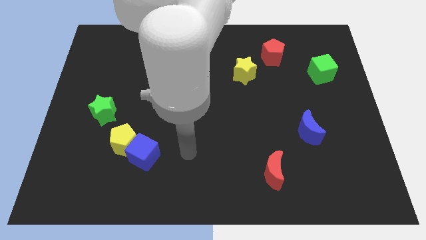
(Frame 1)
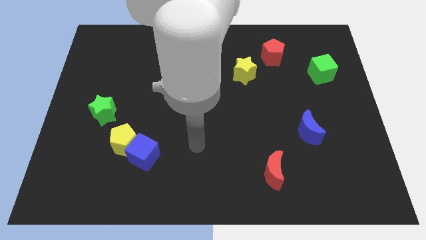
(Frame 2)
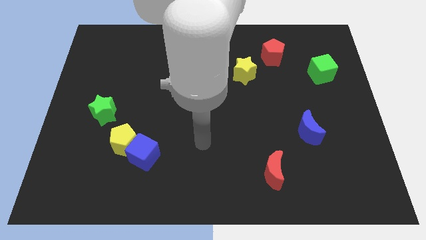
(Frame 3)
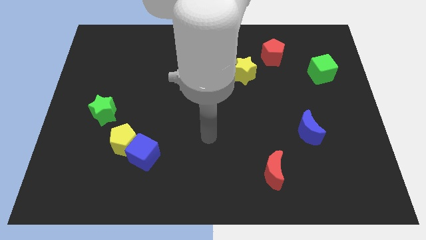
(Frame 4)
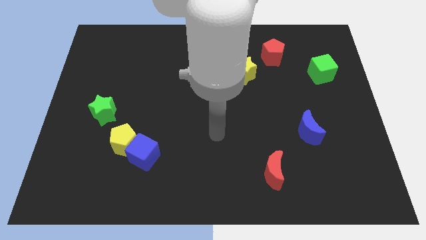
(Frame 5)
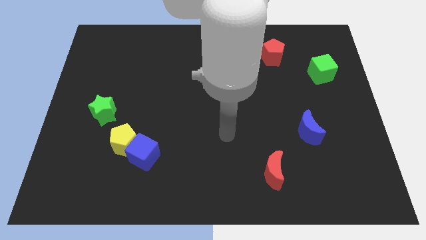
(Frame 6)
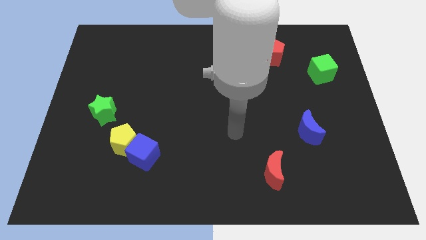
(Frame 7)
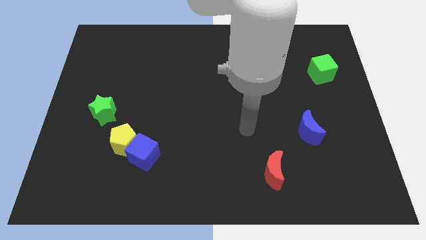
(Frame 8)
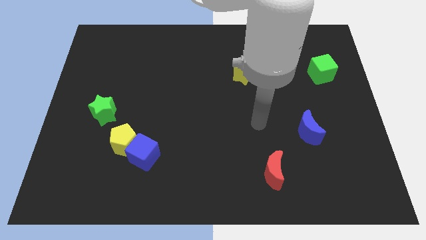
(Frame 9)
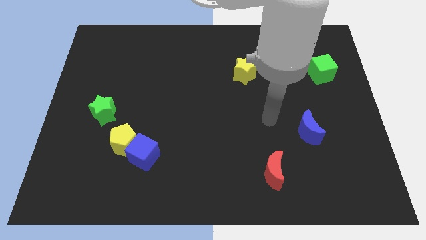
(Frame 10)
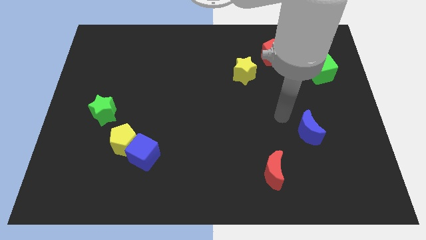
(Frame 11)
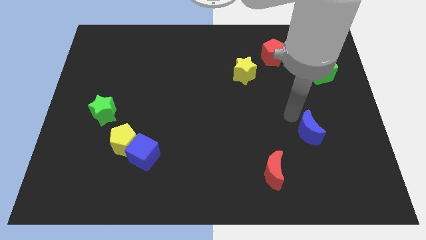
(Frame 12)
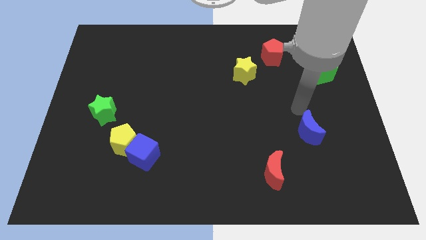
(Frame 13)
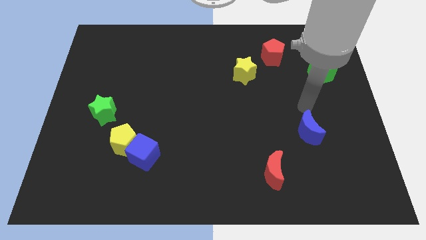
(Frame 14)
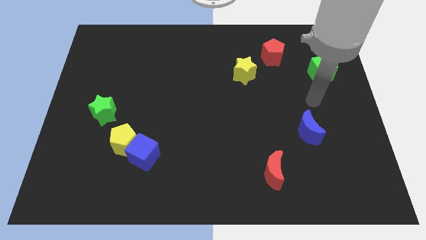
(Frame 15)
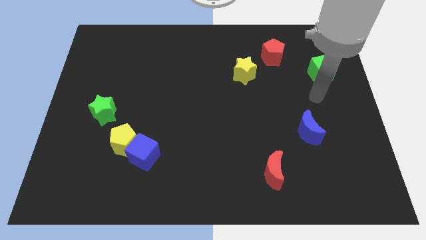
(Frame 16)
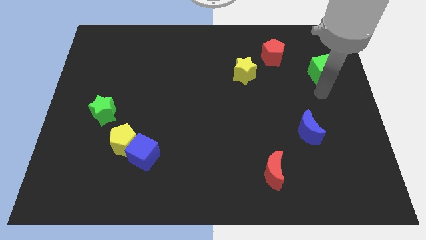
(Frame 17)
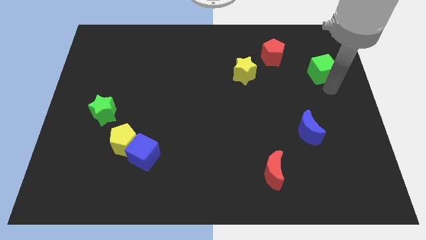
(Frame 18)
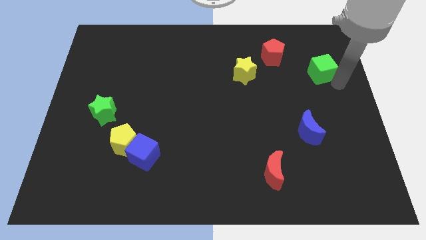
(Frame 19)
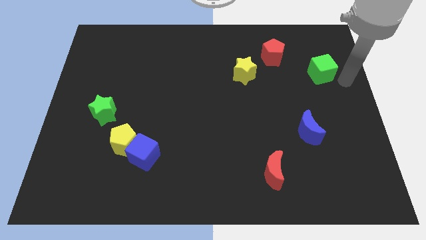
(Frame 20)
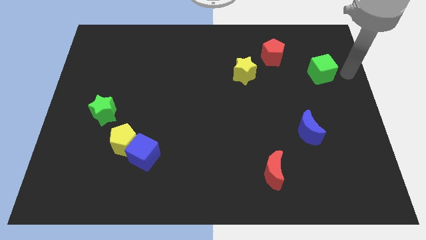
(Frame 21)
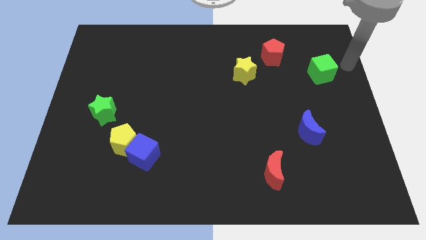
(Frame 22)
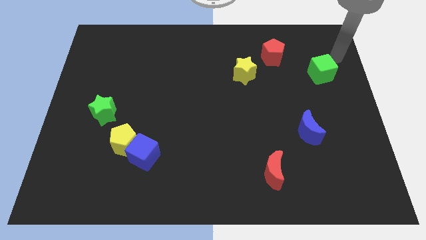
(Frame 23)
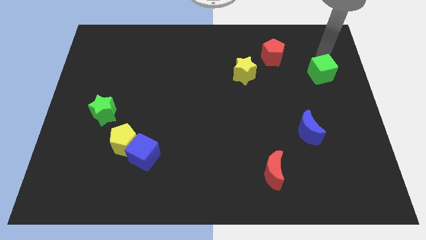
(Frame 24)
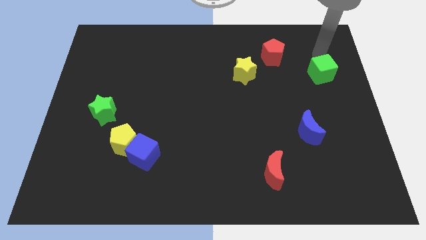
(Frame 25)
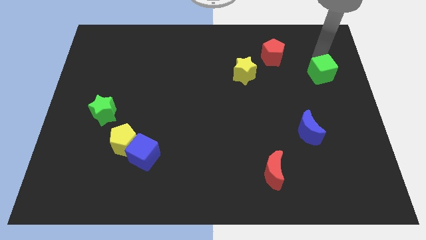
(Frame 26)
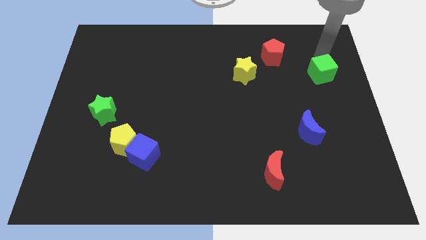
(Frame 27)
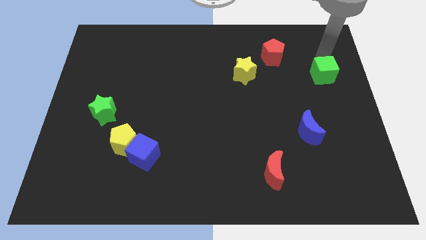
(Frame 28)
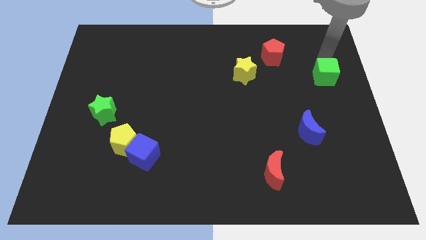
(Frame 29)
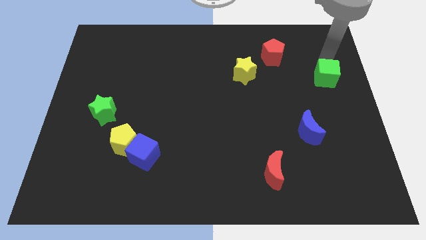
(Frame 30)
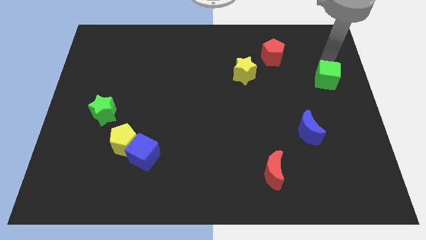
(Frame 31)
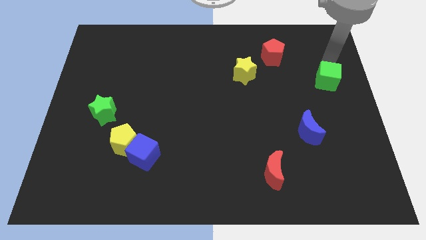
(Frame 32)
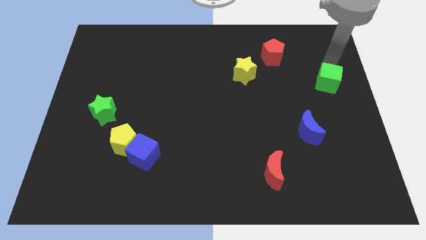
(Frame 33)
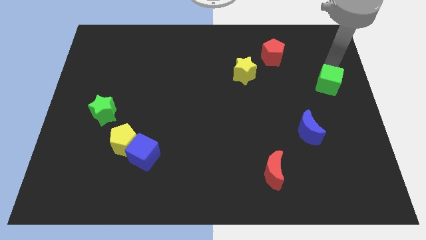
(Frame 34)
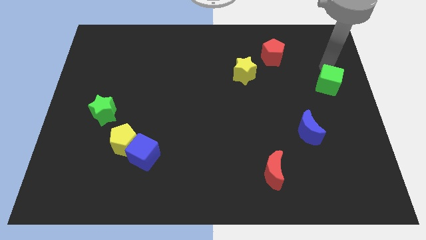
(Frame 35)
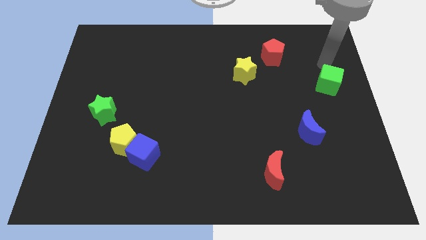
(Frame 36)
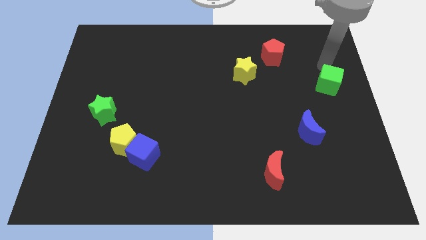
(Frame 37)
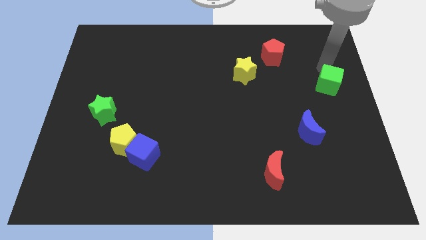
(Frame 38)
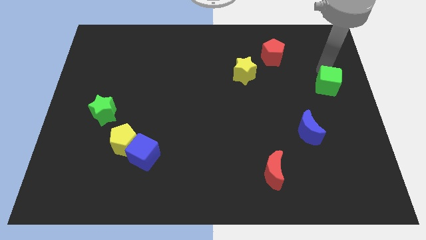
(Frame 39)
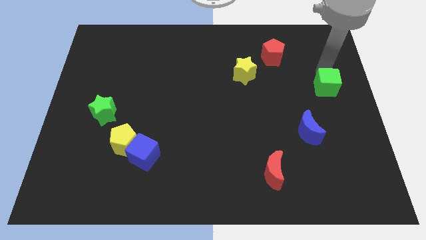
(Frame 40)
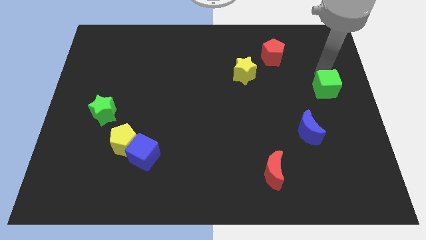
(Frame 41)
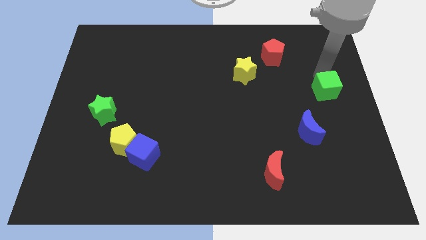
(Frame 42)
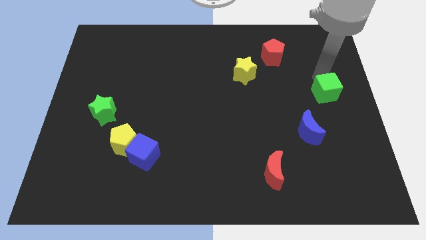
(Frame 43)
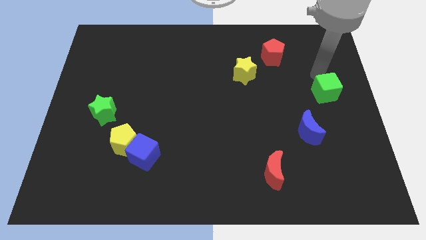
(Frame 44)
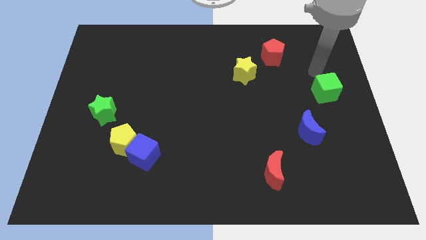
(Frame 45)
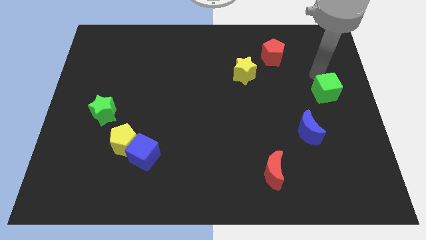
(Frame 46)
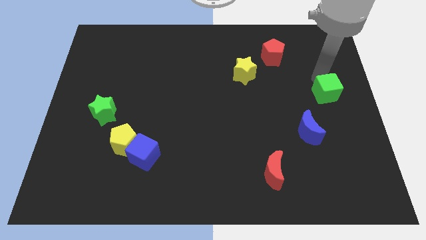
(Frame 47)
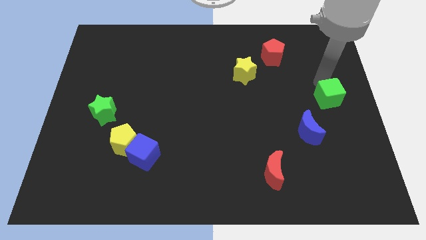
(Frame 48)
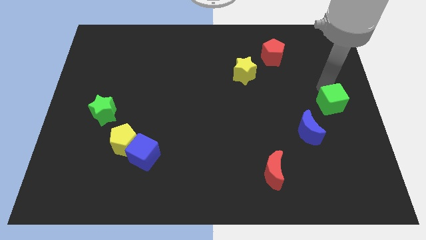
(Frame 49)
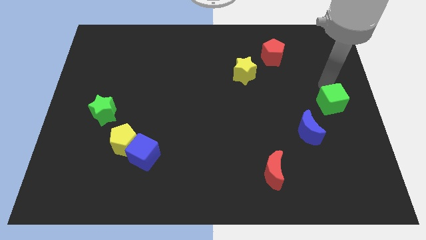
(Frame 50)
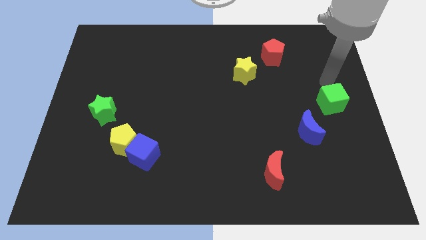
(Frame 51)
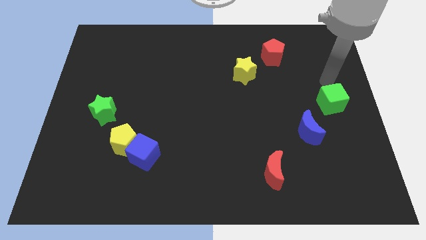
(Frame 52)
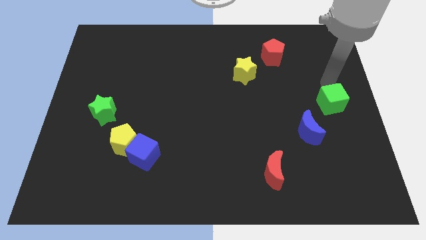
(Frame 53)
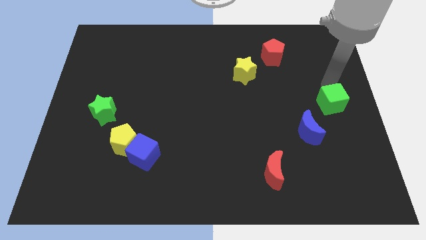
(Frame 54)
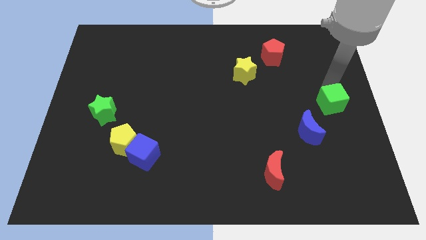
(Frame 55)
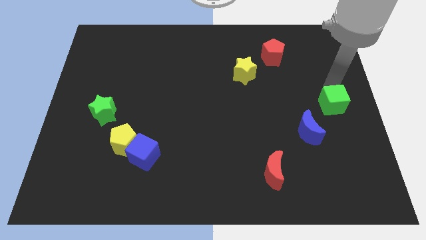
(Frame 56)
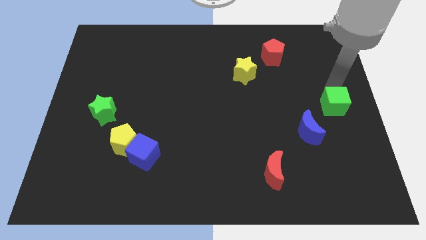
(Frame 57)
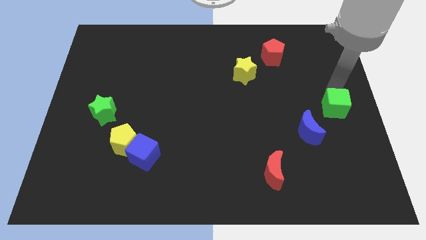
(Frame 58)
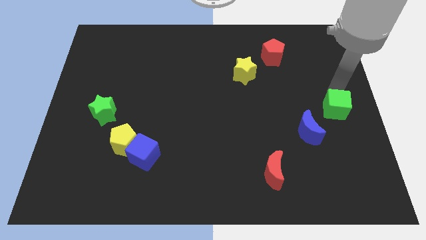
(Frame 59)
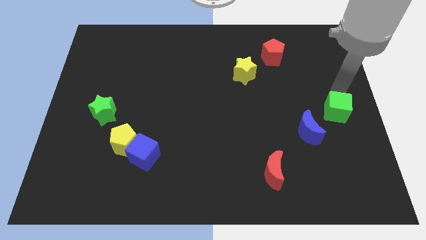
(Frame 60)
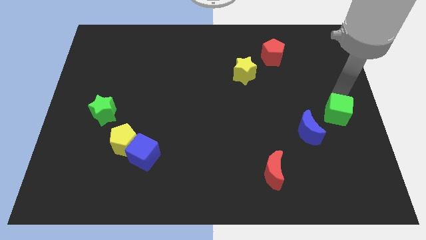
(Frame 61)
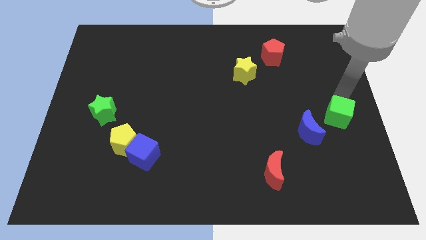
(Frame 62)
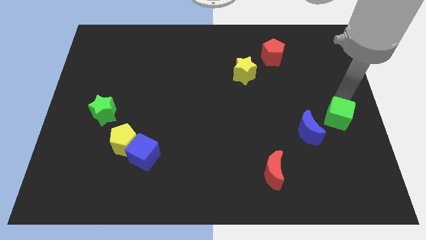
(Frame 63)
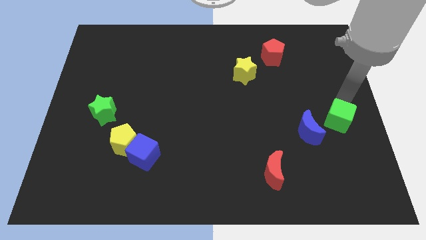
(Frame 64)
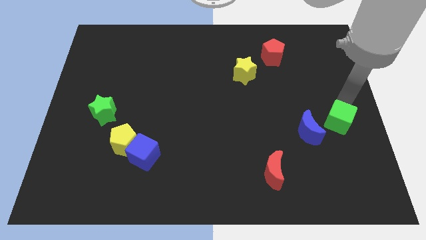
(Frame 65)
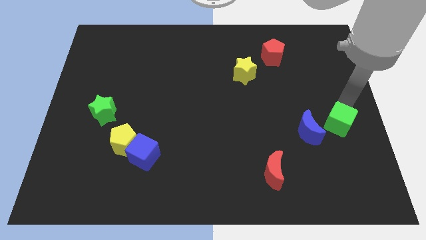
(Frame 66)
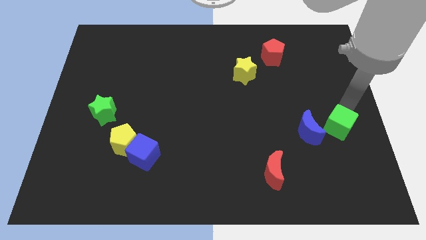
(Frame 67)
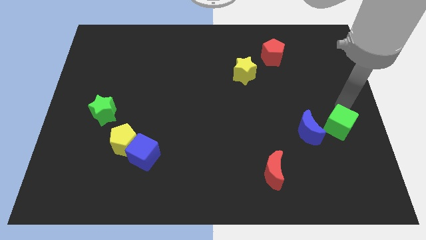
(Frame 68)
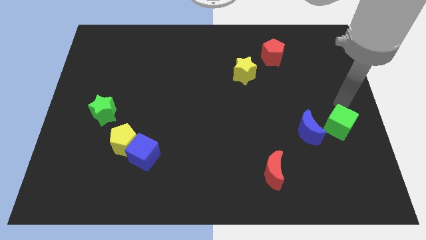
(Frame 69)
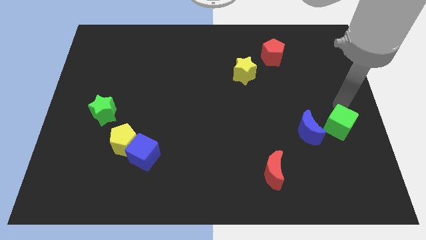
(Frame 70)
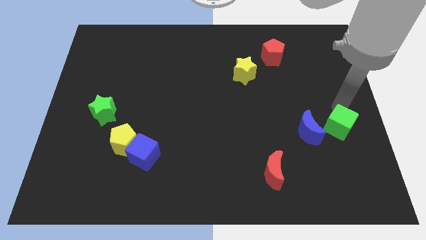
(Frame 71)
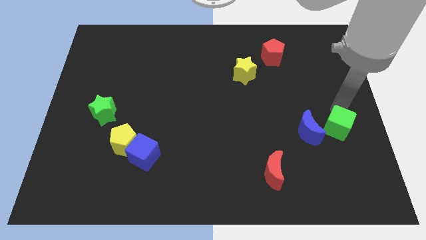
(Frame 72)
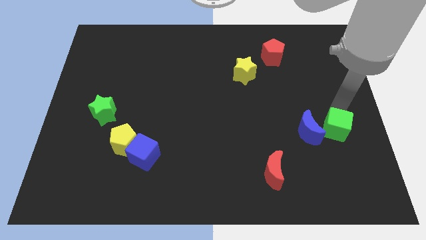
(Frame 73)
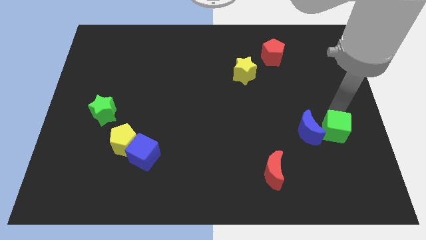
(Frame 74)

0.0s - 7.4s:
slide the green cube to the bottom right of the blue moon
